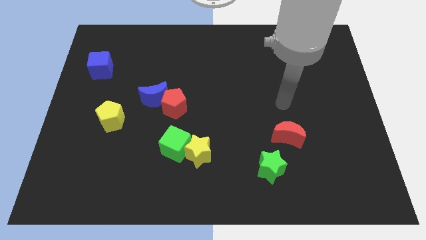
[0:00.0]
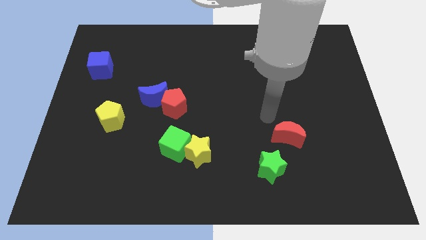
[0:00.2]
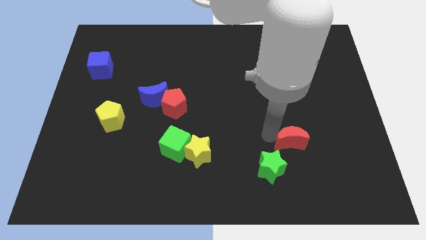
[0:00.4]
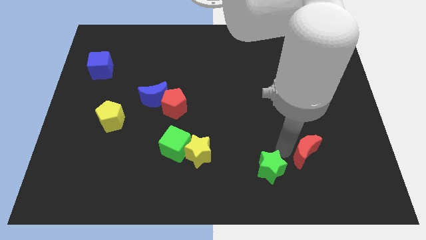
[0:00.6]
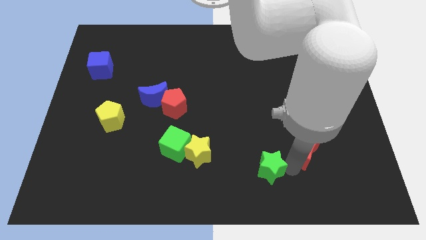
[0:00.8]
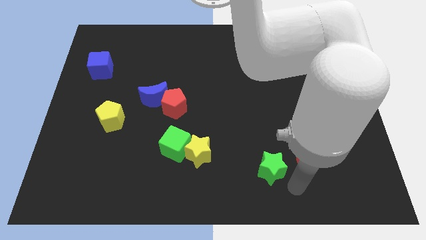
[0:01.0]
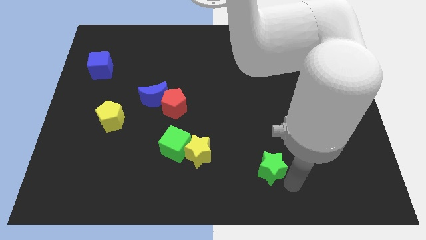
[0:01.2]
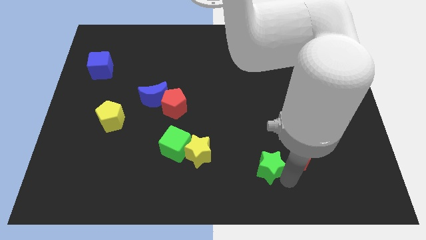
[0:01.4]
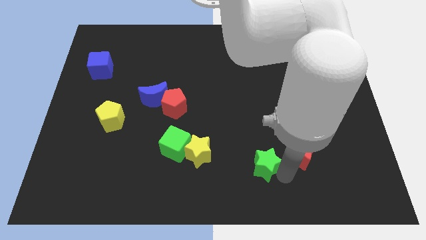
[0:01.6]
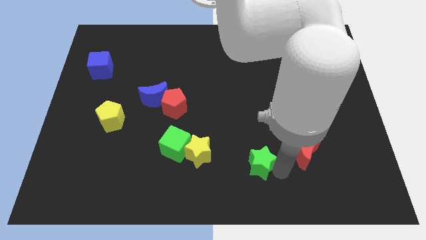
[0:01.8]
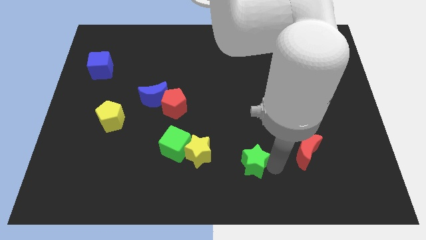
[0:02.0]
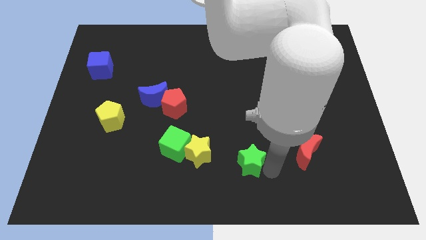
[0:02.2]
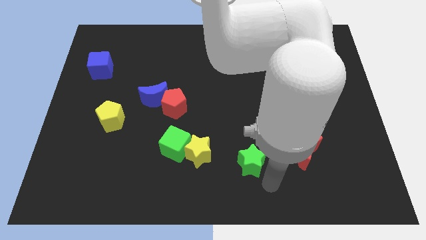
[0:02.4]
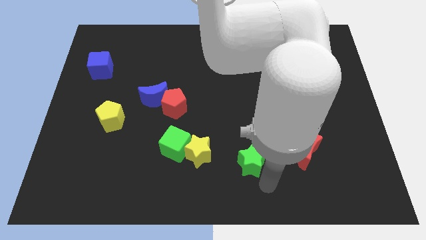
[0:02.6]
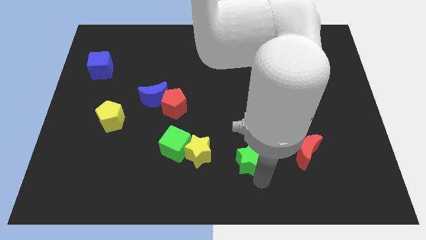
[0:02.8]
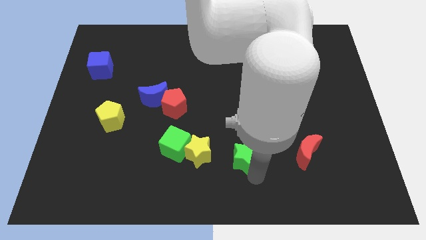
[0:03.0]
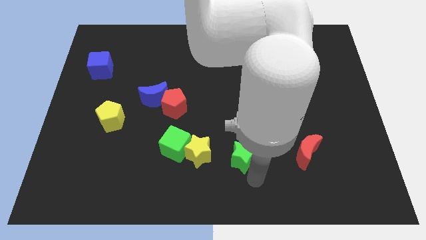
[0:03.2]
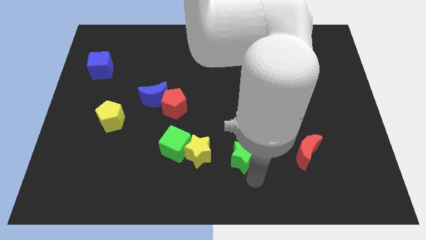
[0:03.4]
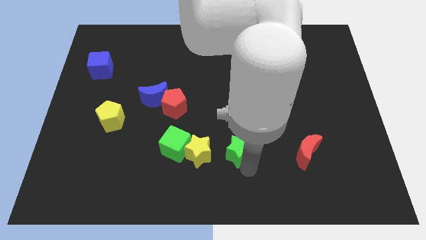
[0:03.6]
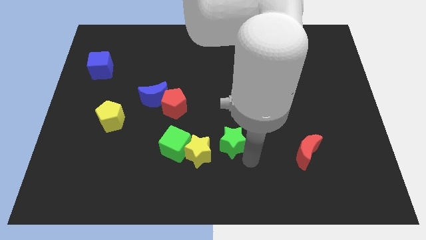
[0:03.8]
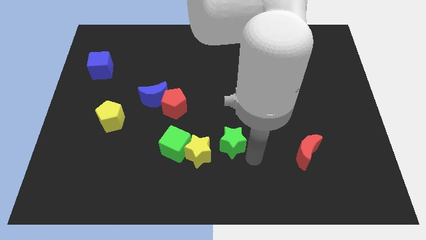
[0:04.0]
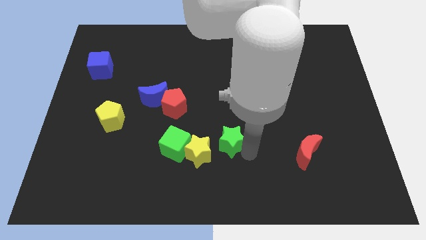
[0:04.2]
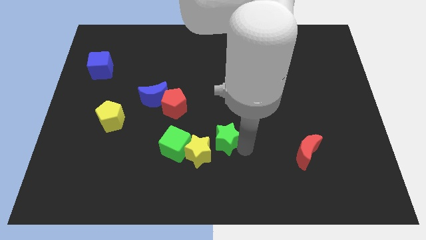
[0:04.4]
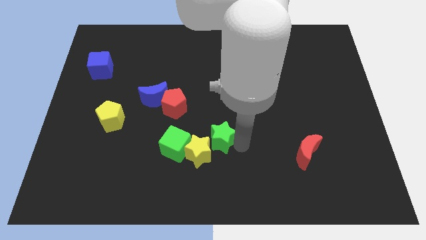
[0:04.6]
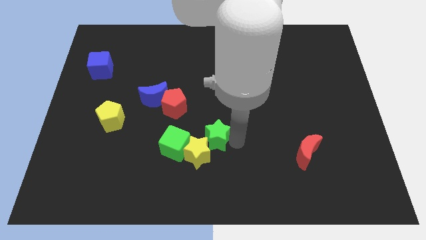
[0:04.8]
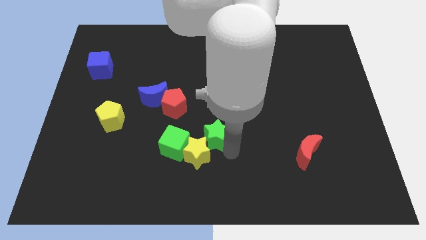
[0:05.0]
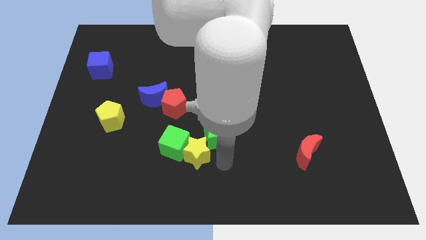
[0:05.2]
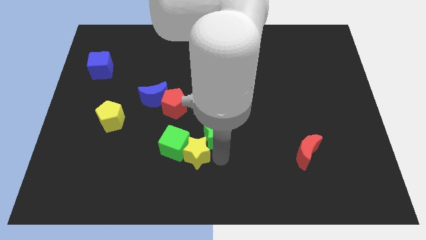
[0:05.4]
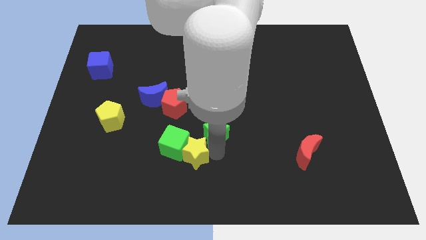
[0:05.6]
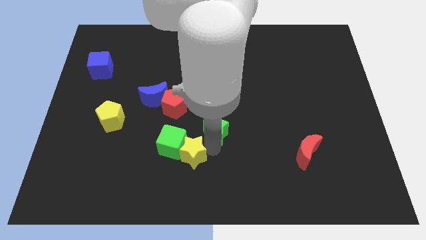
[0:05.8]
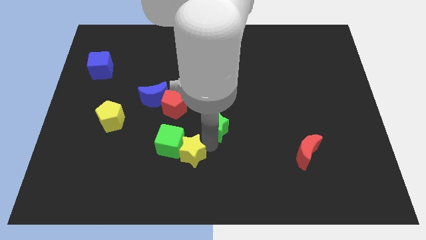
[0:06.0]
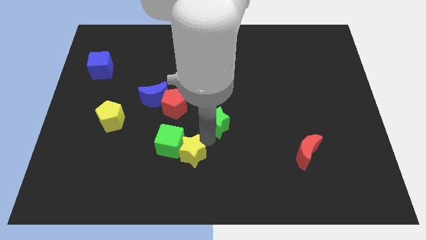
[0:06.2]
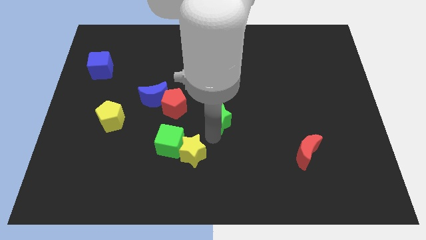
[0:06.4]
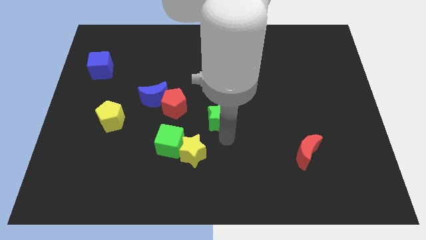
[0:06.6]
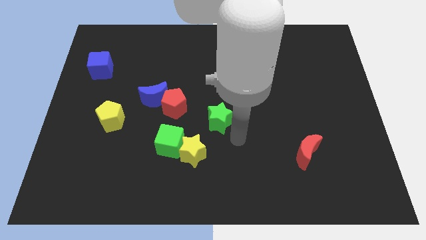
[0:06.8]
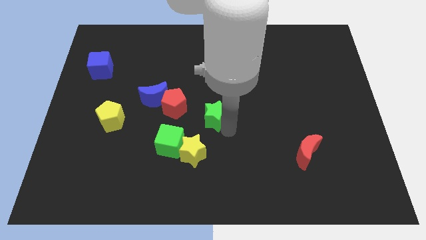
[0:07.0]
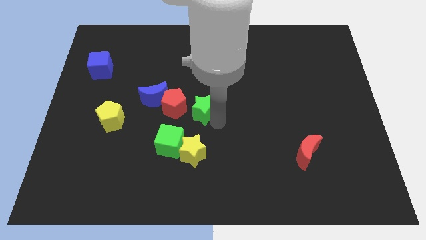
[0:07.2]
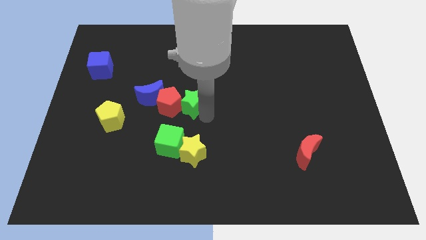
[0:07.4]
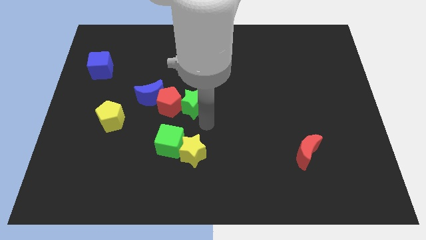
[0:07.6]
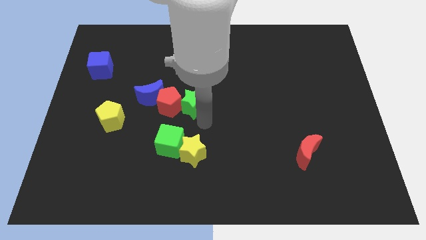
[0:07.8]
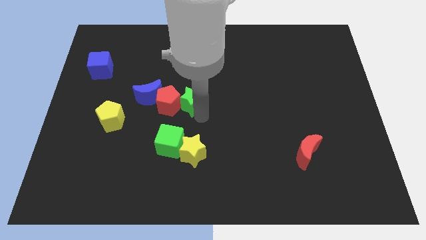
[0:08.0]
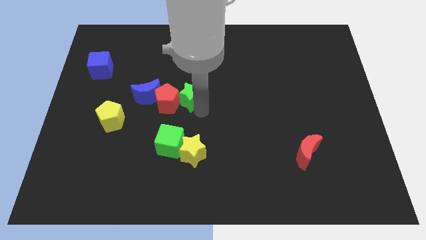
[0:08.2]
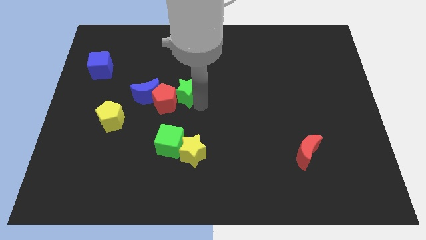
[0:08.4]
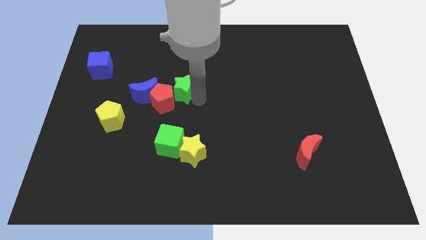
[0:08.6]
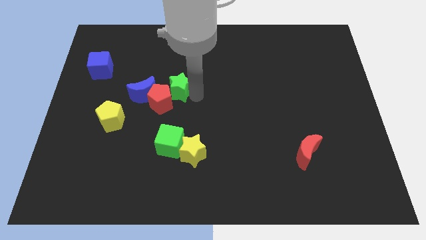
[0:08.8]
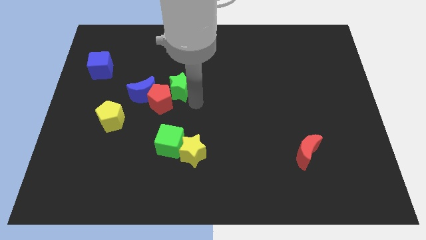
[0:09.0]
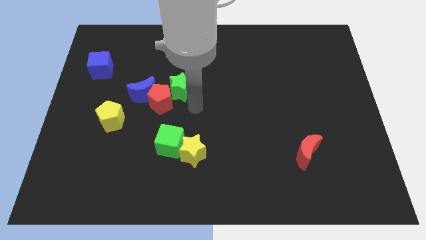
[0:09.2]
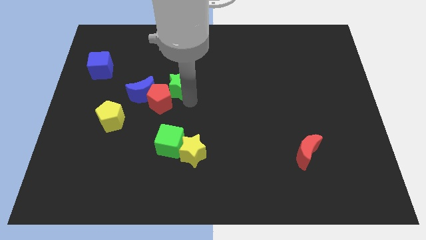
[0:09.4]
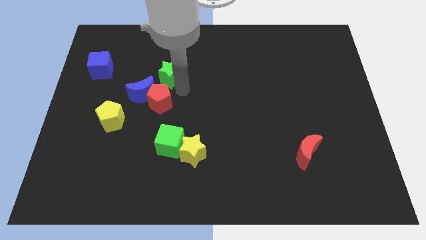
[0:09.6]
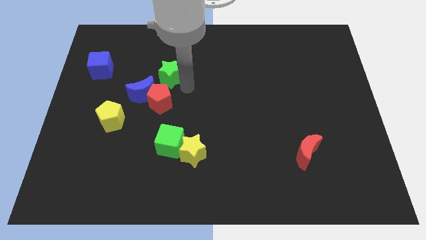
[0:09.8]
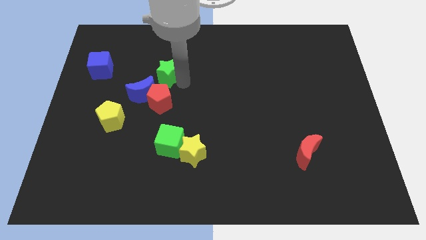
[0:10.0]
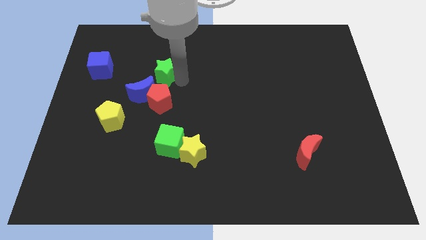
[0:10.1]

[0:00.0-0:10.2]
push the green star to the top side of the blue moon

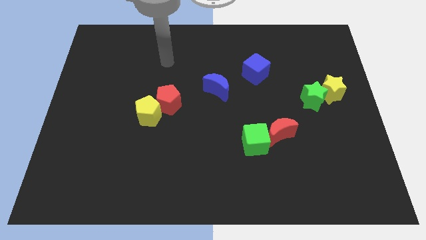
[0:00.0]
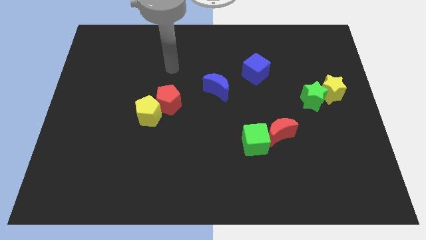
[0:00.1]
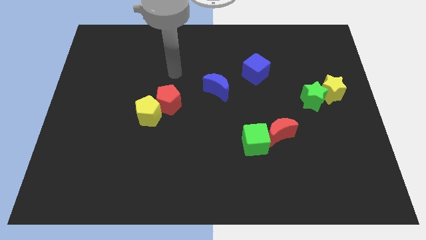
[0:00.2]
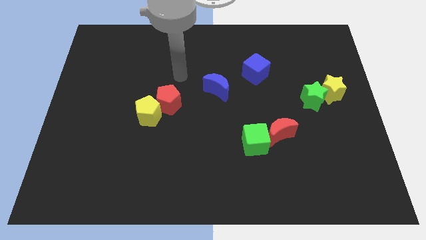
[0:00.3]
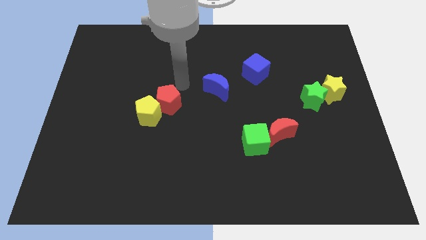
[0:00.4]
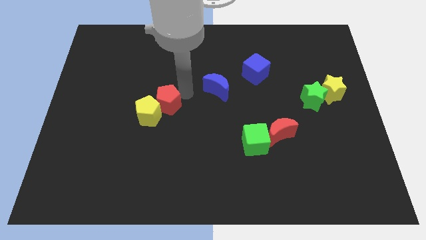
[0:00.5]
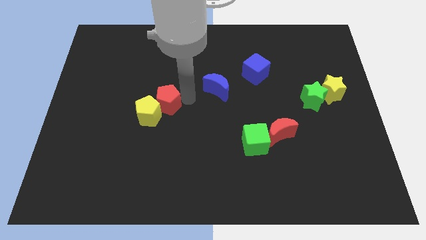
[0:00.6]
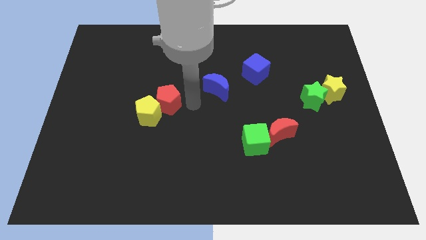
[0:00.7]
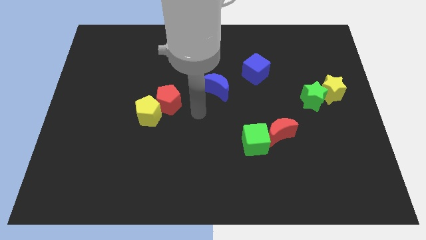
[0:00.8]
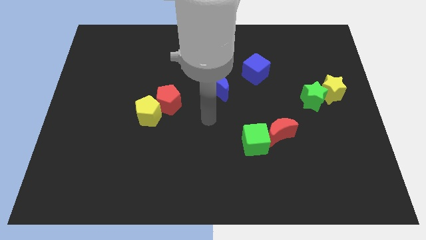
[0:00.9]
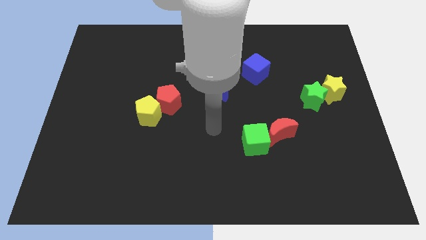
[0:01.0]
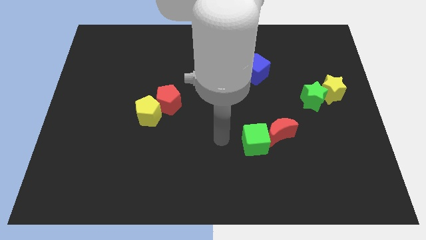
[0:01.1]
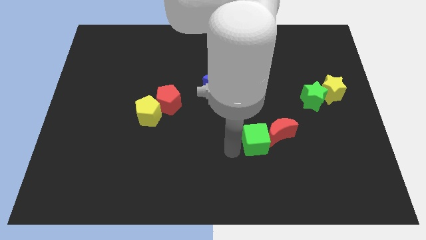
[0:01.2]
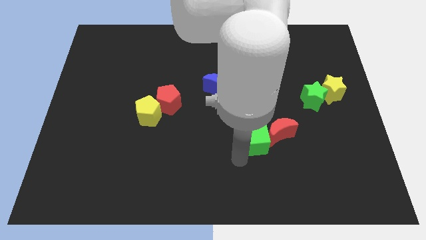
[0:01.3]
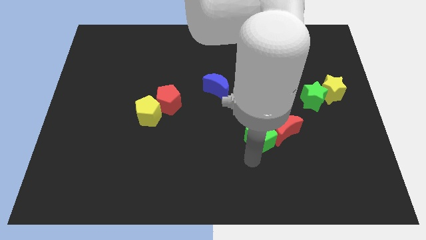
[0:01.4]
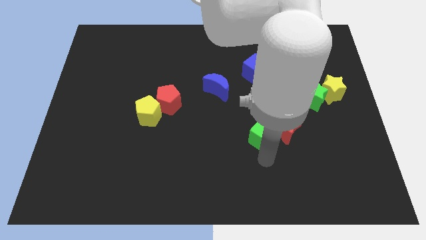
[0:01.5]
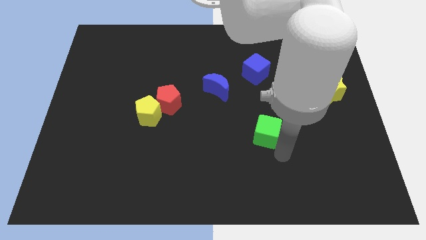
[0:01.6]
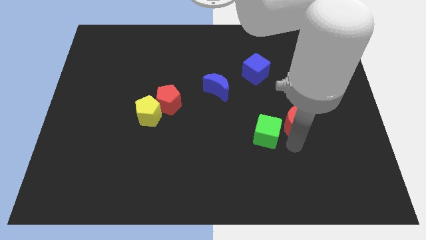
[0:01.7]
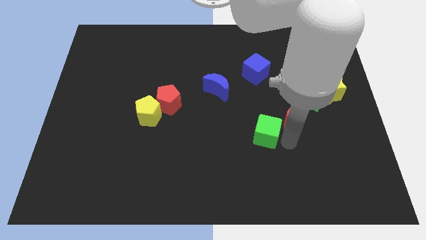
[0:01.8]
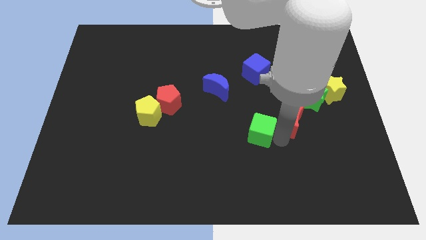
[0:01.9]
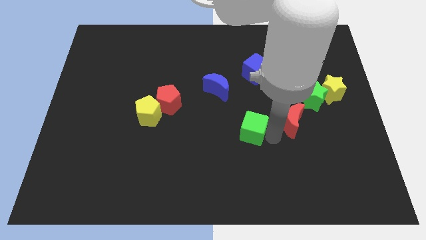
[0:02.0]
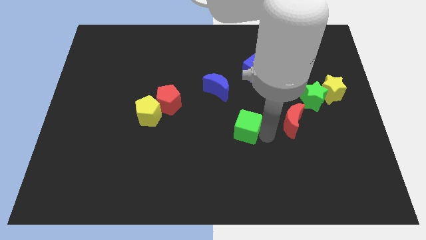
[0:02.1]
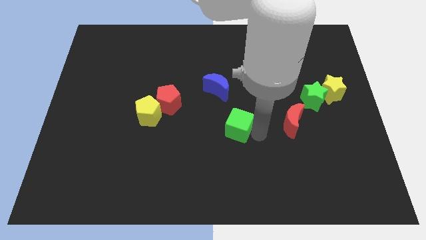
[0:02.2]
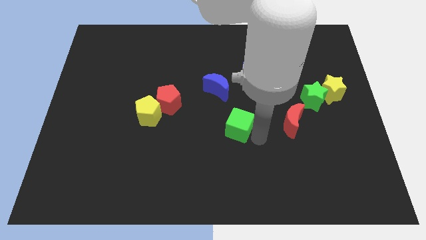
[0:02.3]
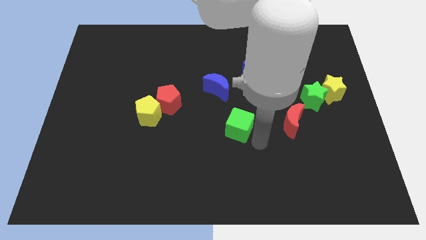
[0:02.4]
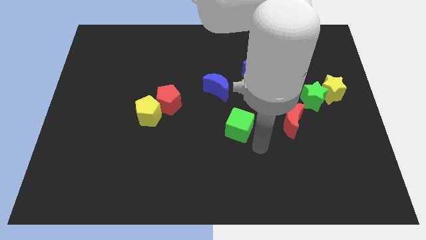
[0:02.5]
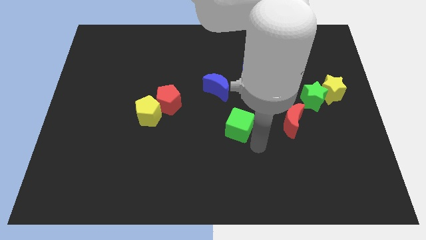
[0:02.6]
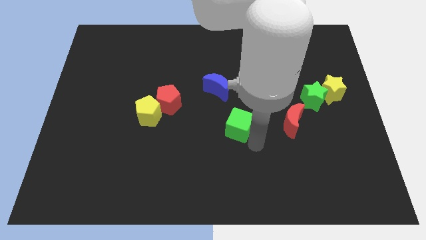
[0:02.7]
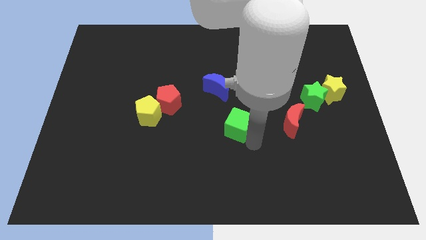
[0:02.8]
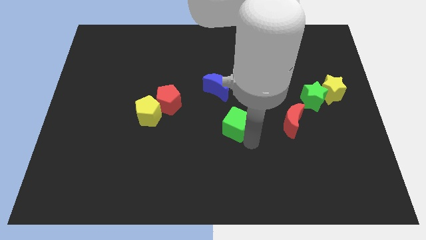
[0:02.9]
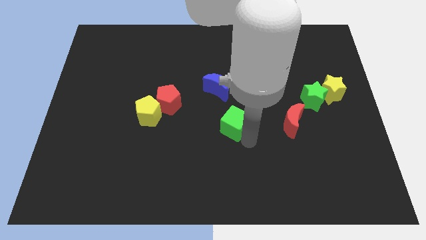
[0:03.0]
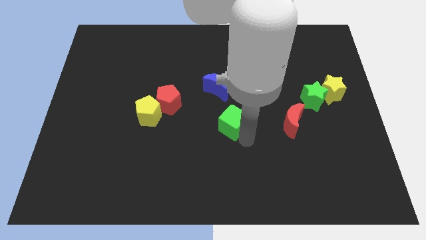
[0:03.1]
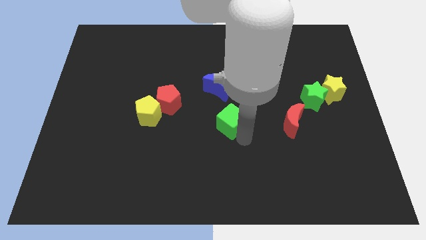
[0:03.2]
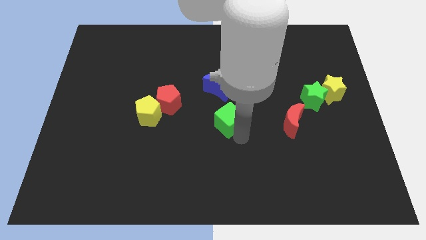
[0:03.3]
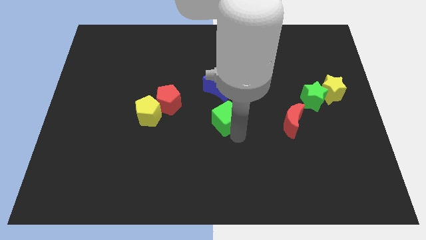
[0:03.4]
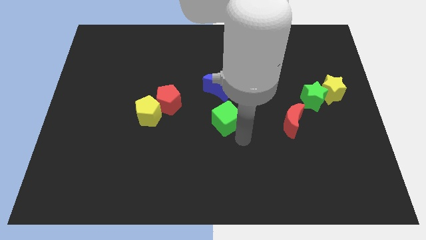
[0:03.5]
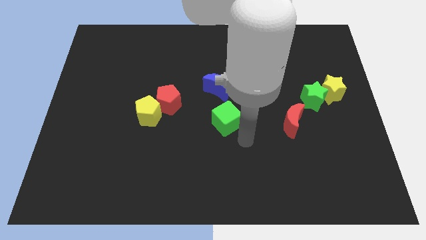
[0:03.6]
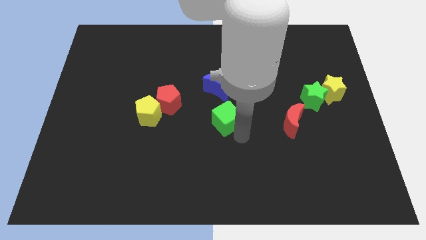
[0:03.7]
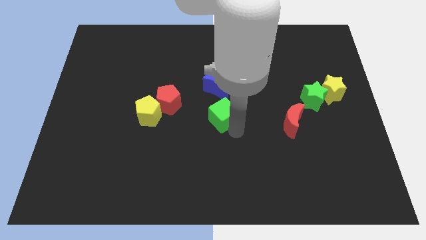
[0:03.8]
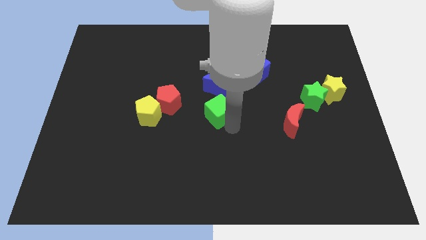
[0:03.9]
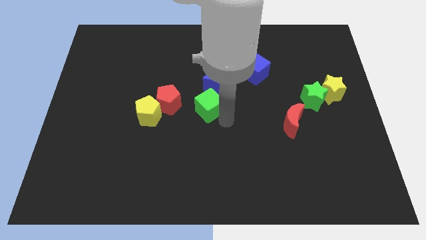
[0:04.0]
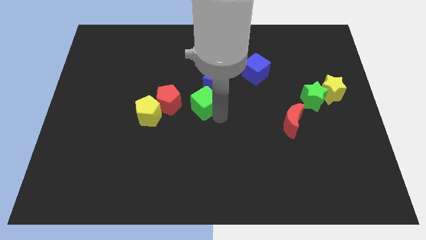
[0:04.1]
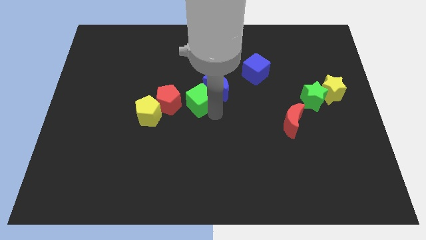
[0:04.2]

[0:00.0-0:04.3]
move the green cube left of the blue moon
